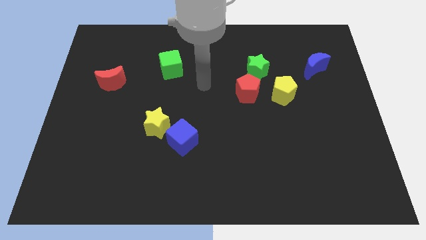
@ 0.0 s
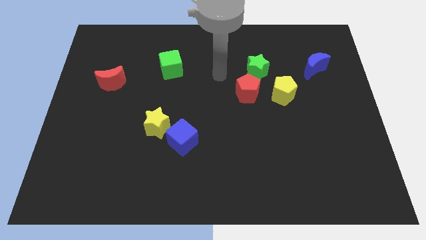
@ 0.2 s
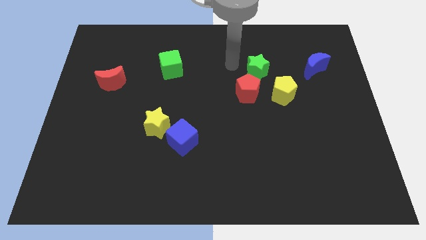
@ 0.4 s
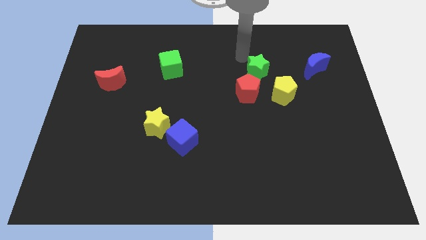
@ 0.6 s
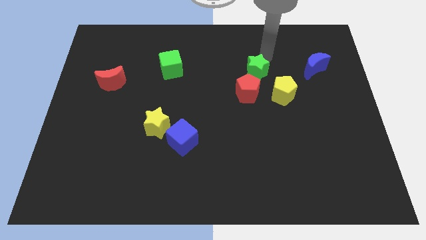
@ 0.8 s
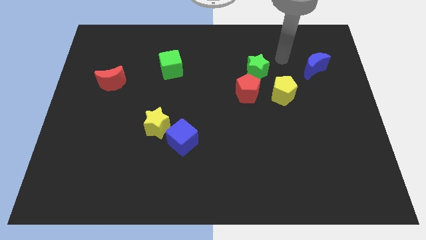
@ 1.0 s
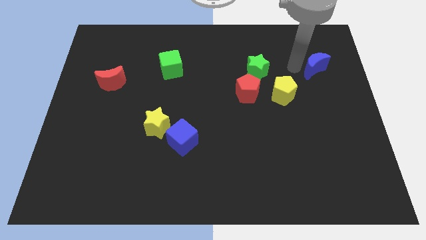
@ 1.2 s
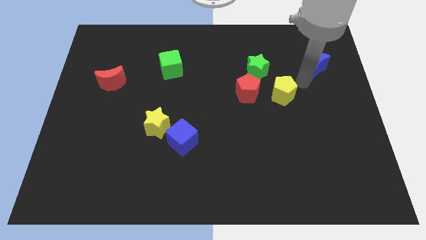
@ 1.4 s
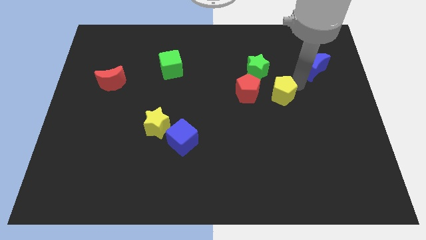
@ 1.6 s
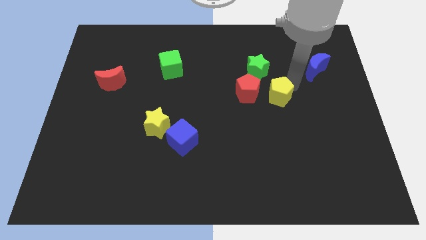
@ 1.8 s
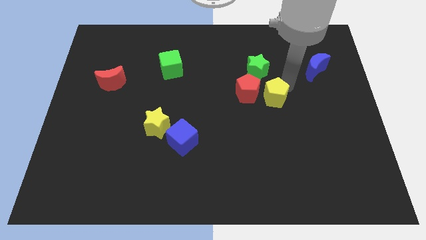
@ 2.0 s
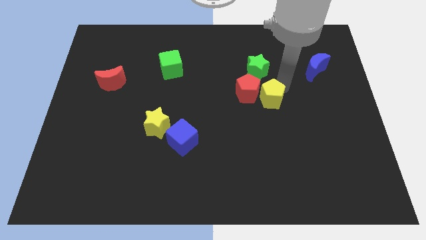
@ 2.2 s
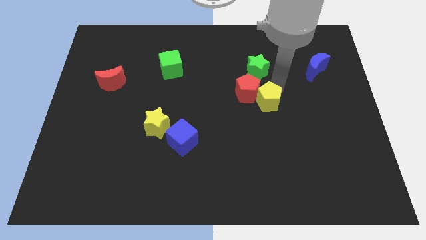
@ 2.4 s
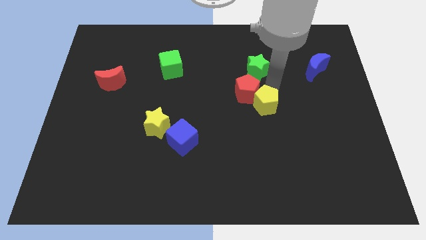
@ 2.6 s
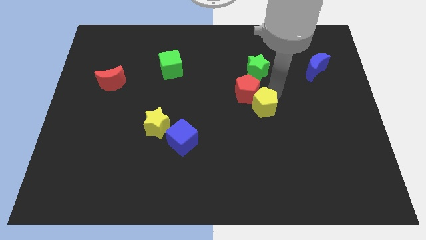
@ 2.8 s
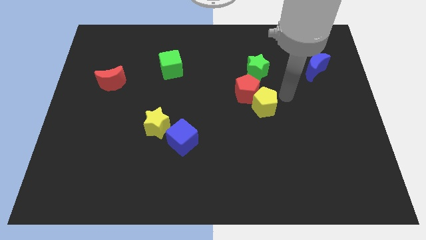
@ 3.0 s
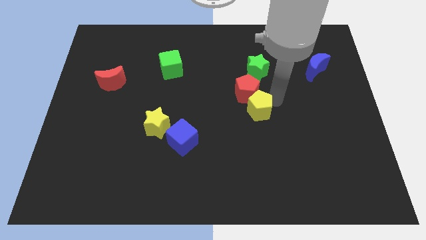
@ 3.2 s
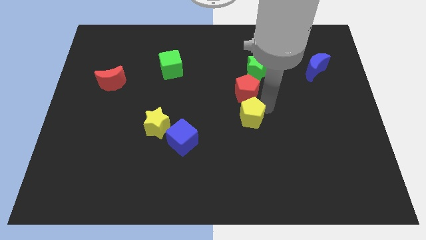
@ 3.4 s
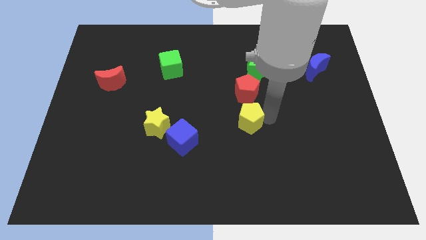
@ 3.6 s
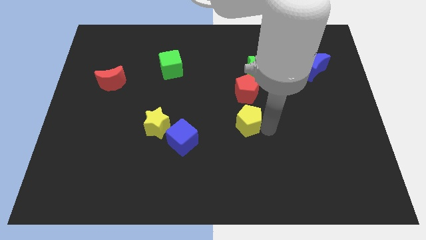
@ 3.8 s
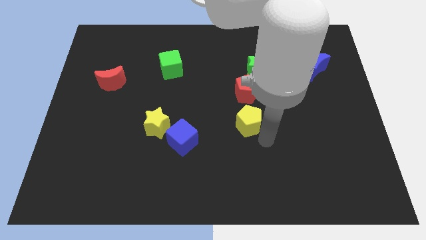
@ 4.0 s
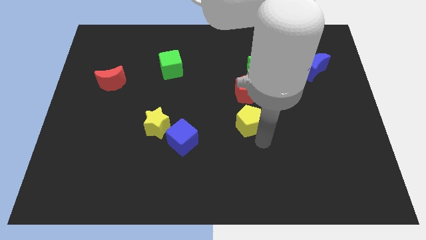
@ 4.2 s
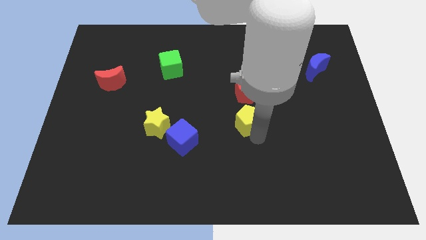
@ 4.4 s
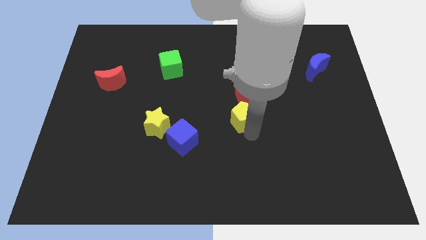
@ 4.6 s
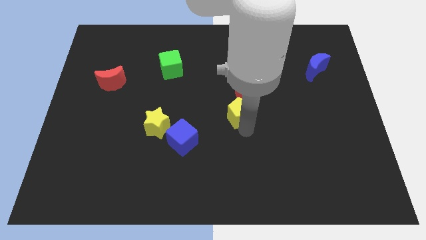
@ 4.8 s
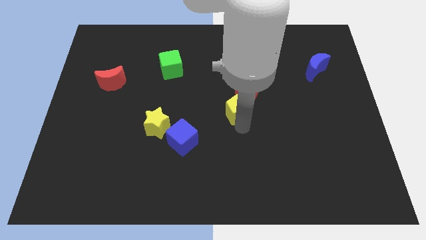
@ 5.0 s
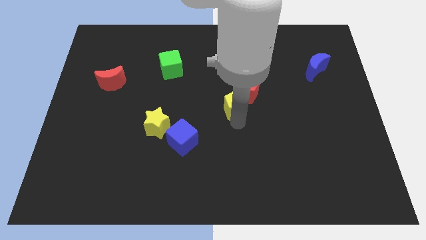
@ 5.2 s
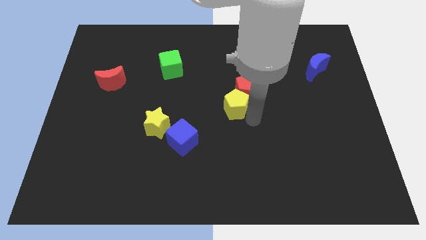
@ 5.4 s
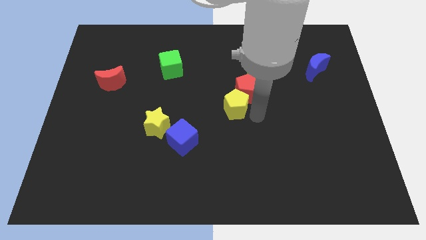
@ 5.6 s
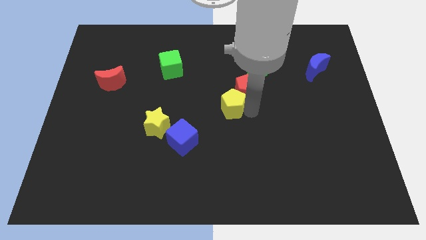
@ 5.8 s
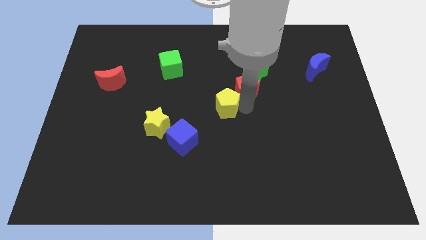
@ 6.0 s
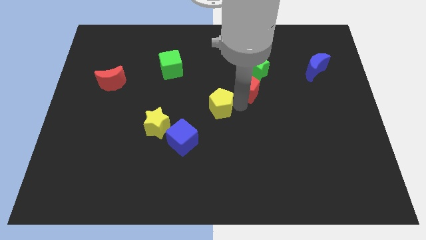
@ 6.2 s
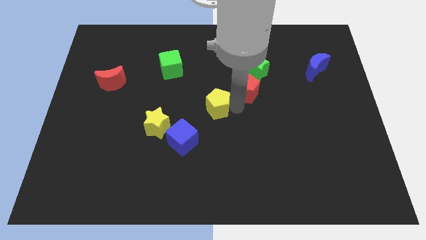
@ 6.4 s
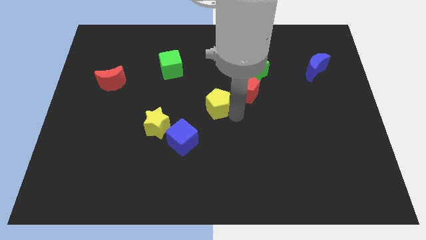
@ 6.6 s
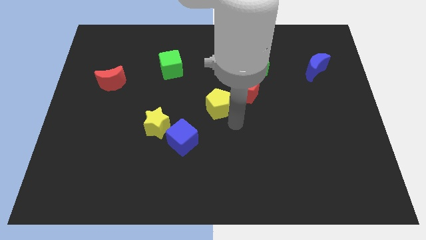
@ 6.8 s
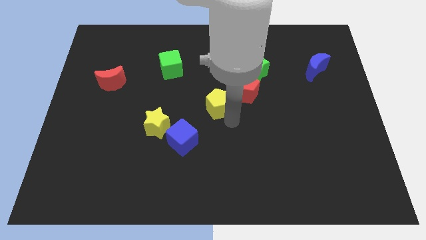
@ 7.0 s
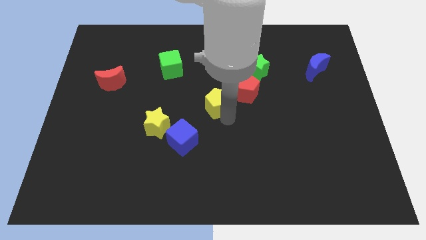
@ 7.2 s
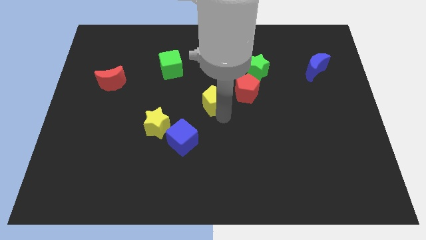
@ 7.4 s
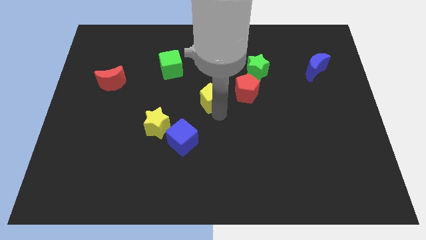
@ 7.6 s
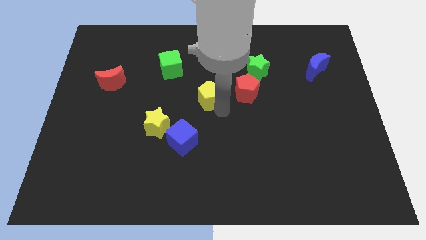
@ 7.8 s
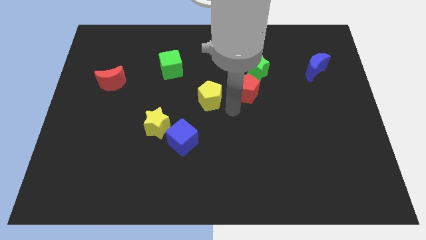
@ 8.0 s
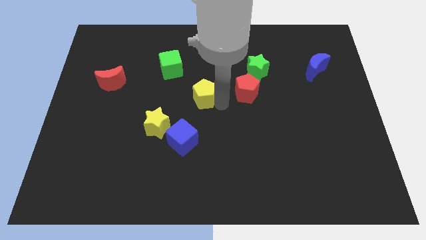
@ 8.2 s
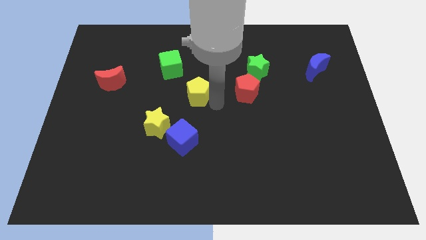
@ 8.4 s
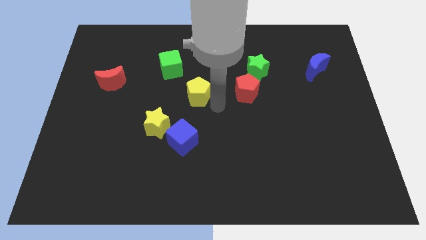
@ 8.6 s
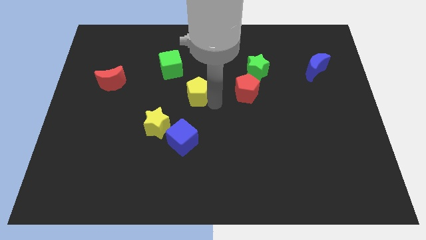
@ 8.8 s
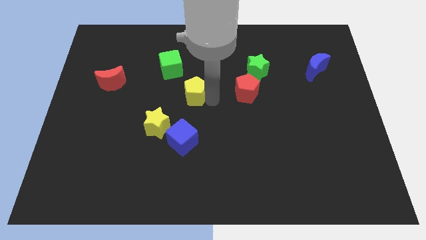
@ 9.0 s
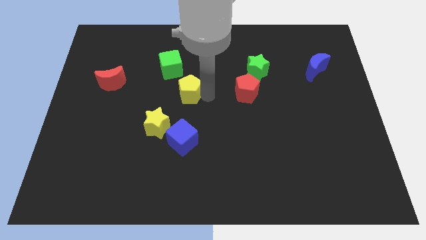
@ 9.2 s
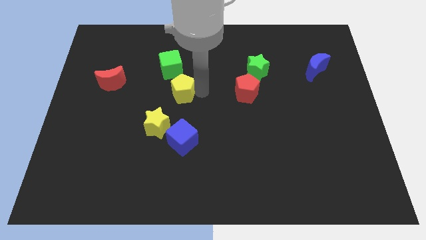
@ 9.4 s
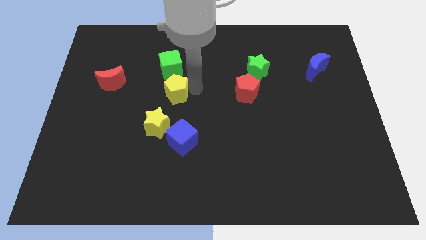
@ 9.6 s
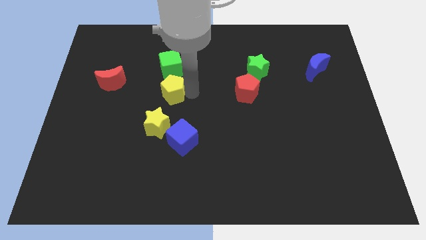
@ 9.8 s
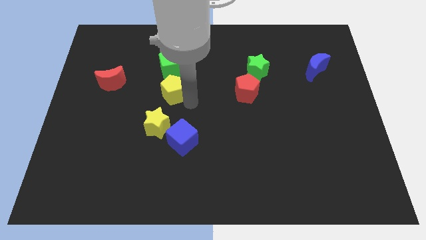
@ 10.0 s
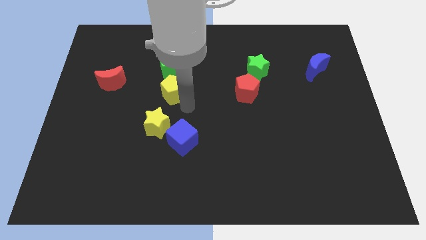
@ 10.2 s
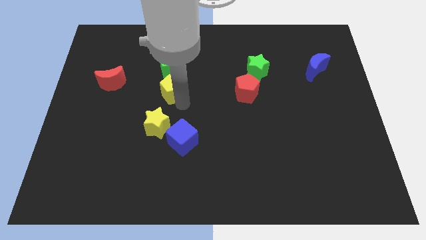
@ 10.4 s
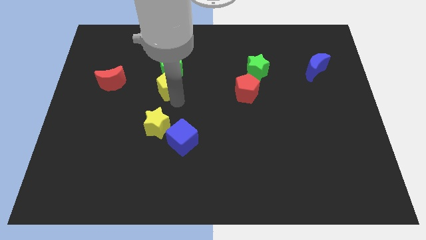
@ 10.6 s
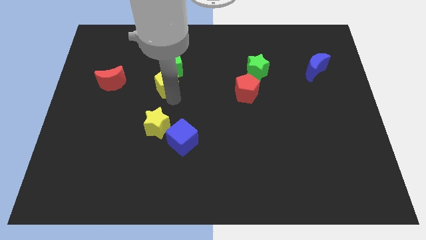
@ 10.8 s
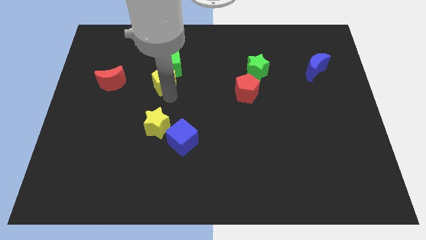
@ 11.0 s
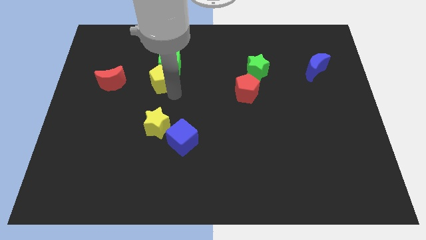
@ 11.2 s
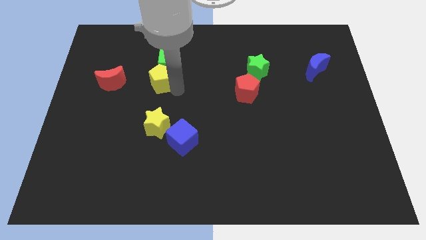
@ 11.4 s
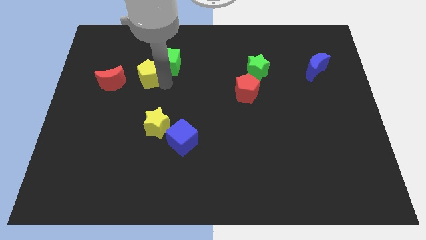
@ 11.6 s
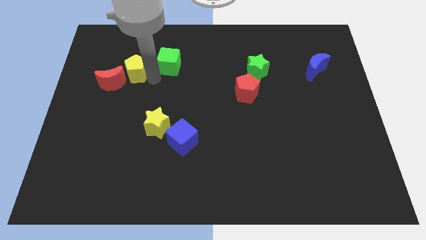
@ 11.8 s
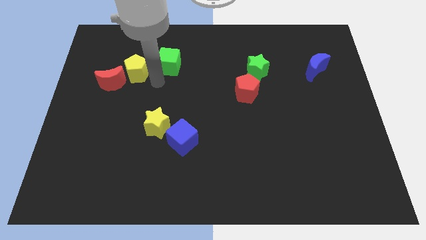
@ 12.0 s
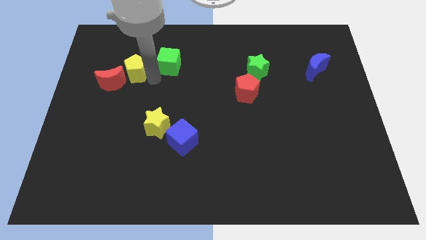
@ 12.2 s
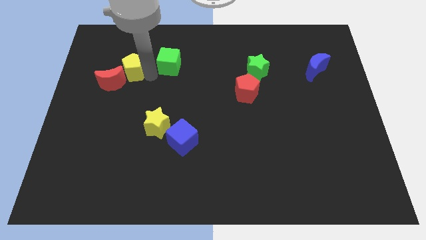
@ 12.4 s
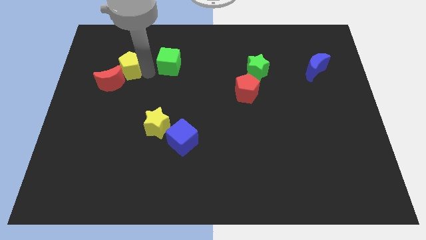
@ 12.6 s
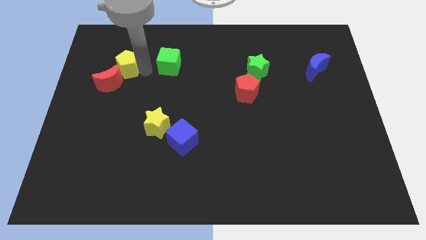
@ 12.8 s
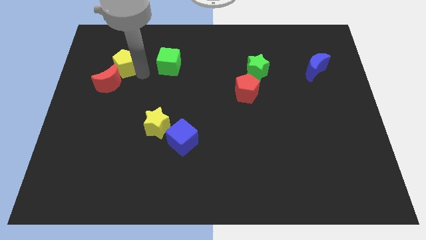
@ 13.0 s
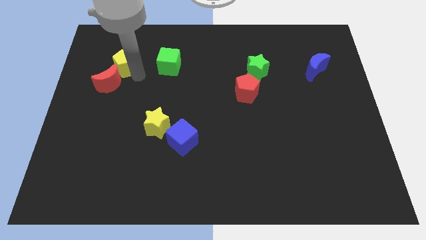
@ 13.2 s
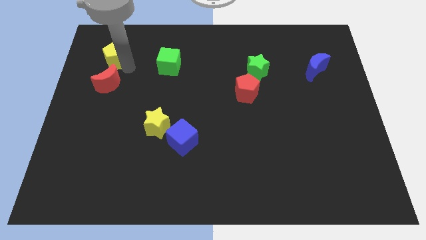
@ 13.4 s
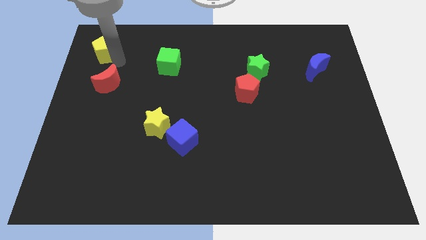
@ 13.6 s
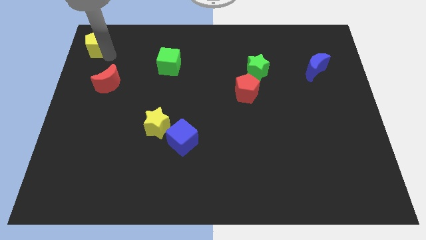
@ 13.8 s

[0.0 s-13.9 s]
move the yellow pentagon to the upper left corner

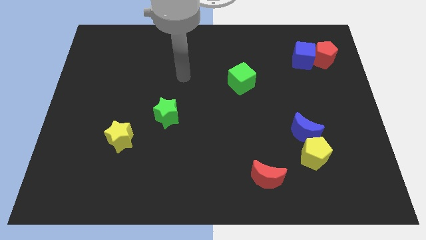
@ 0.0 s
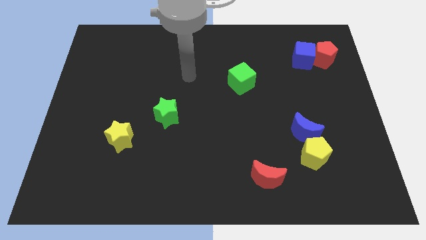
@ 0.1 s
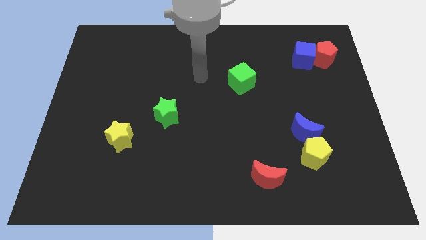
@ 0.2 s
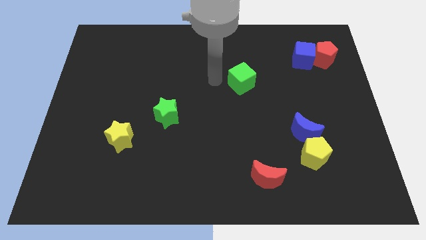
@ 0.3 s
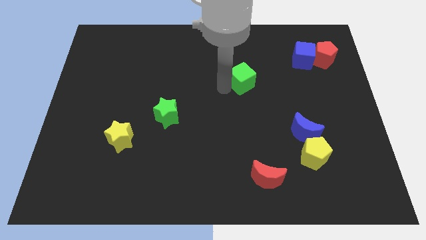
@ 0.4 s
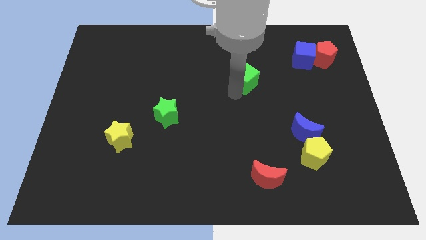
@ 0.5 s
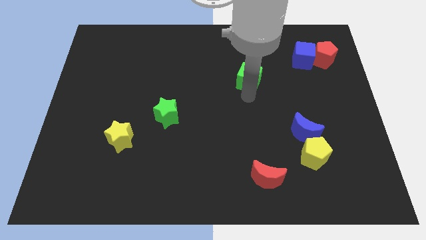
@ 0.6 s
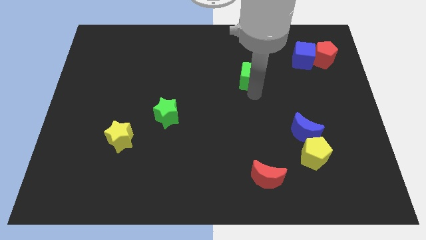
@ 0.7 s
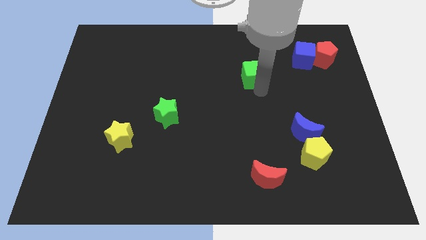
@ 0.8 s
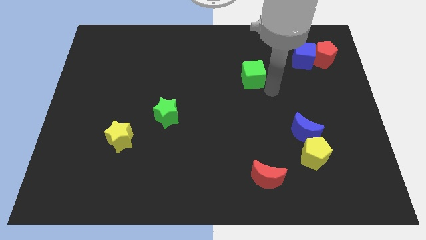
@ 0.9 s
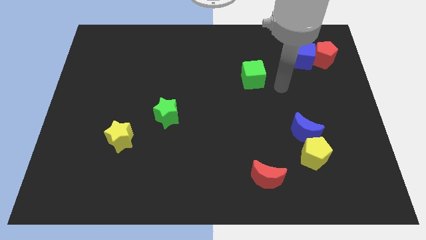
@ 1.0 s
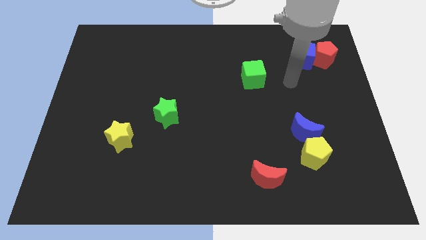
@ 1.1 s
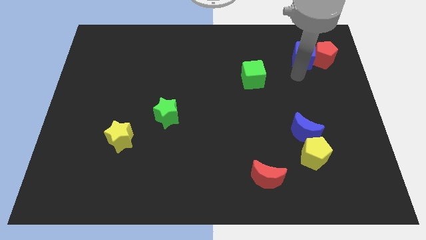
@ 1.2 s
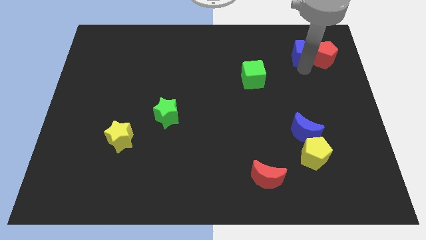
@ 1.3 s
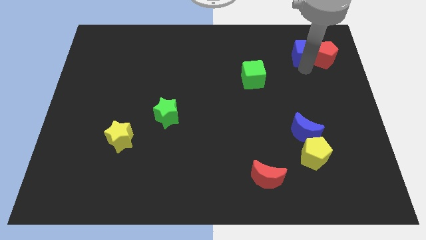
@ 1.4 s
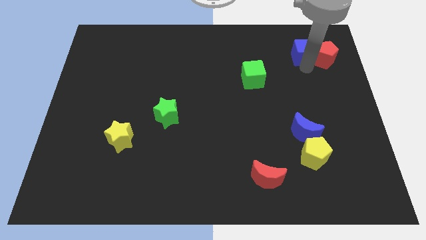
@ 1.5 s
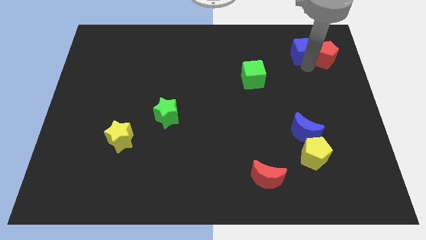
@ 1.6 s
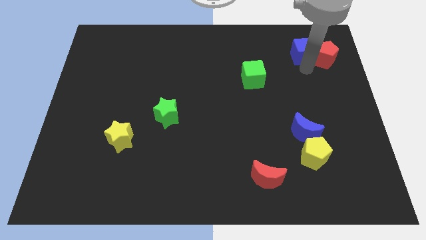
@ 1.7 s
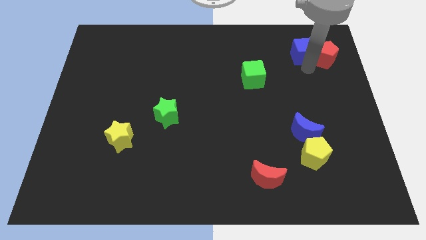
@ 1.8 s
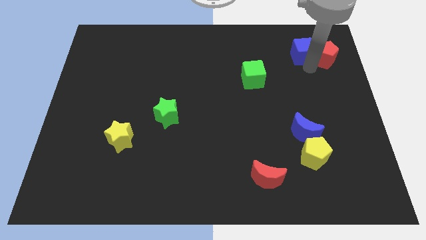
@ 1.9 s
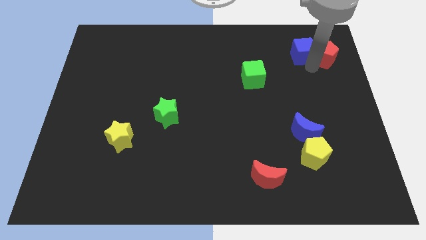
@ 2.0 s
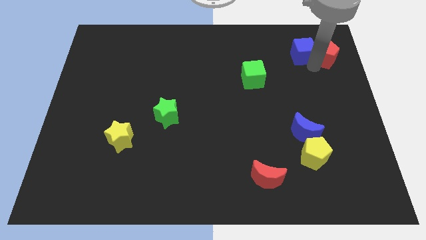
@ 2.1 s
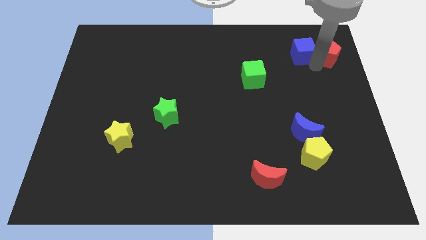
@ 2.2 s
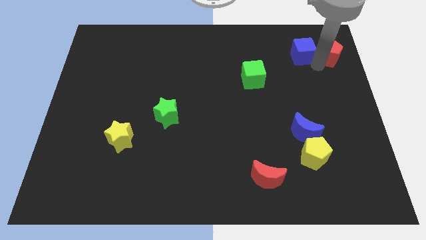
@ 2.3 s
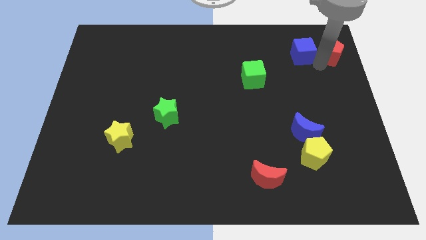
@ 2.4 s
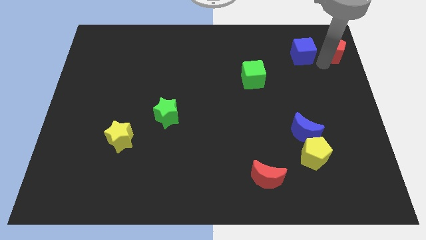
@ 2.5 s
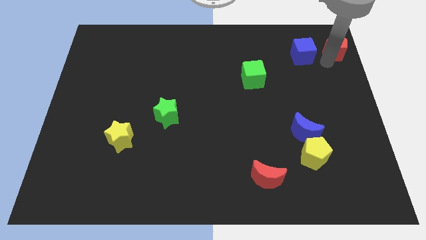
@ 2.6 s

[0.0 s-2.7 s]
move the red pentagon to the upper right corner
